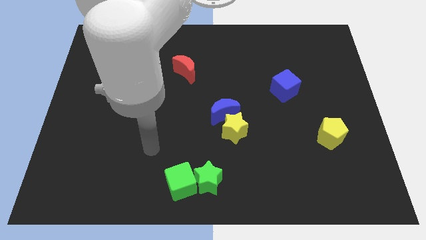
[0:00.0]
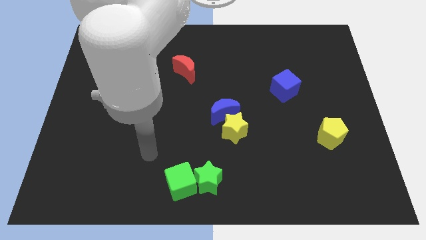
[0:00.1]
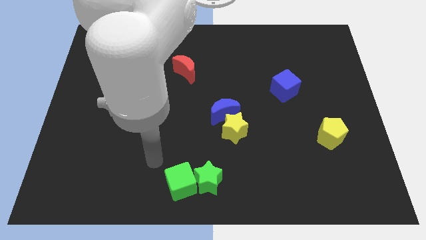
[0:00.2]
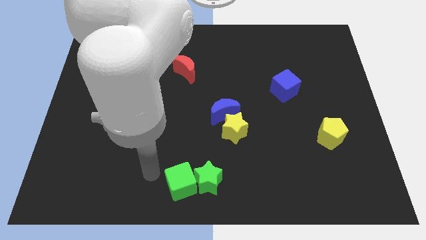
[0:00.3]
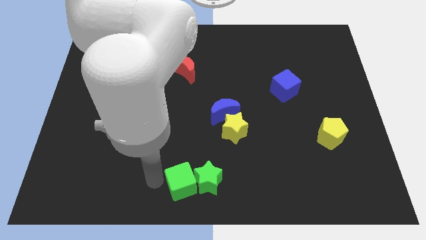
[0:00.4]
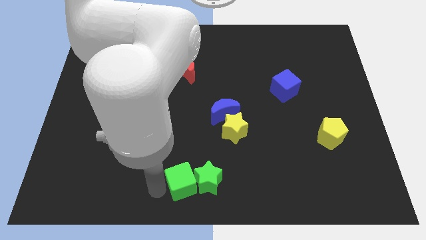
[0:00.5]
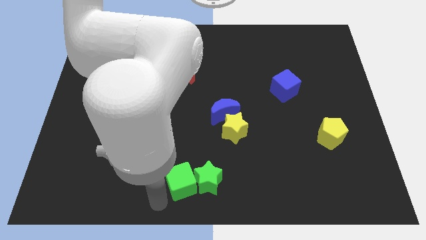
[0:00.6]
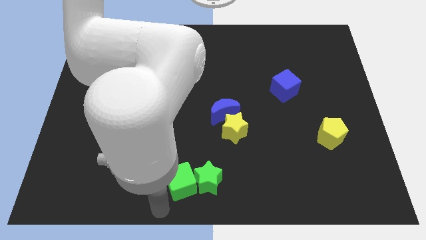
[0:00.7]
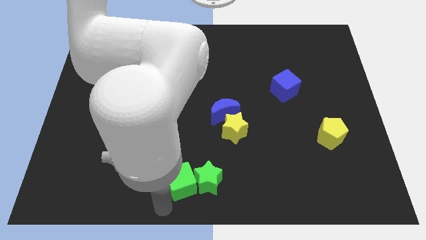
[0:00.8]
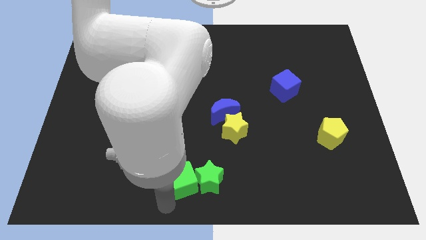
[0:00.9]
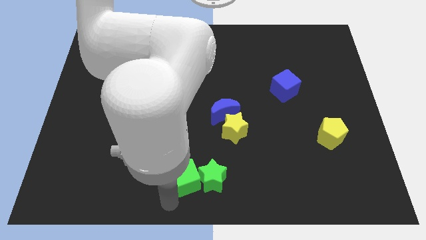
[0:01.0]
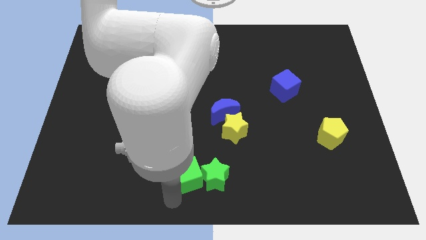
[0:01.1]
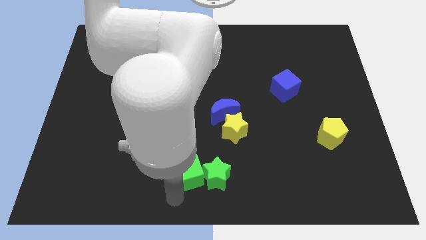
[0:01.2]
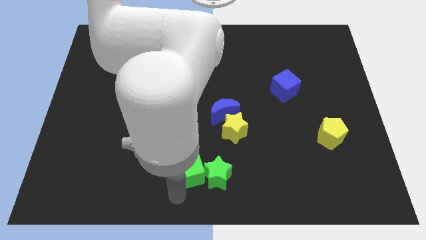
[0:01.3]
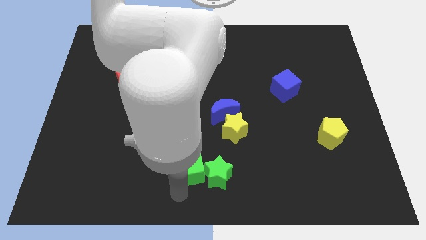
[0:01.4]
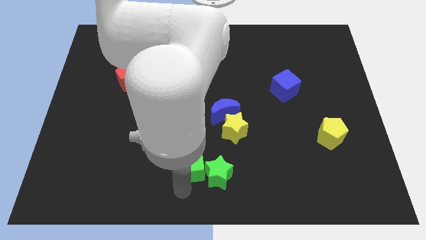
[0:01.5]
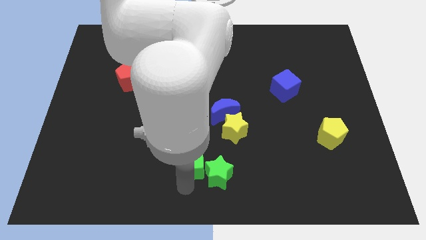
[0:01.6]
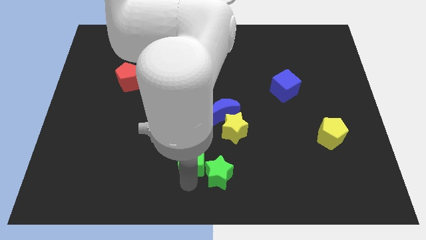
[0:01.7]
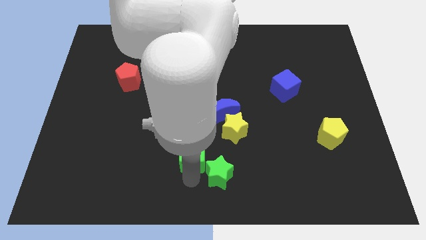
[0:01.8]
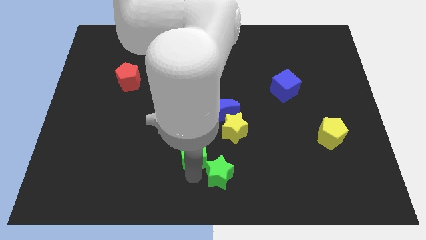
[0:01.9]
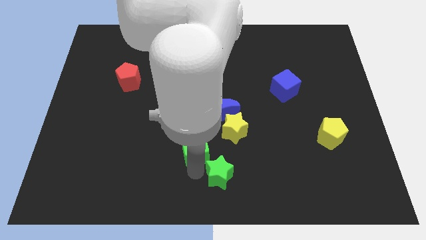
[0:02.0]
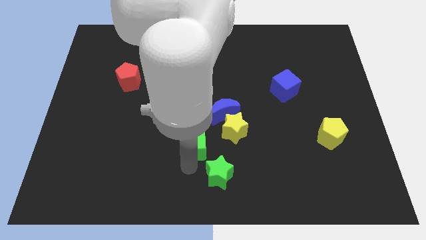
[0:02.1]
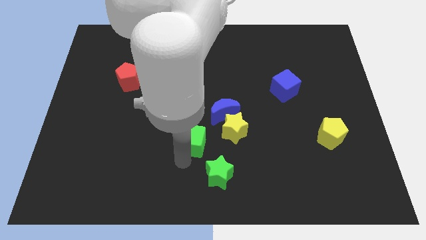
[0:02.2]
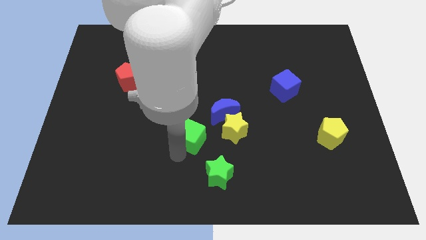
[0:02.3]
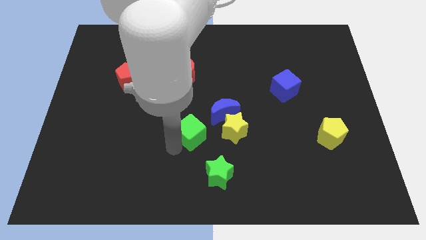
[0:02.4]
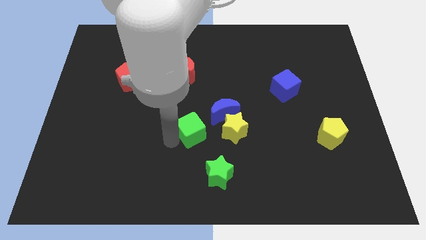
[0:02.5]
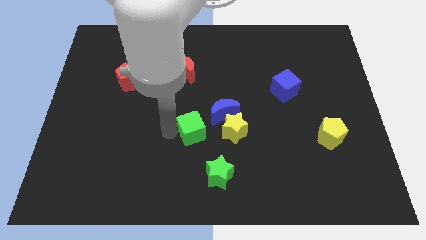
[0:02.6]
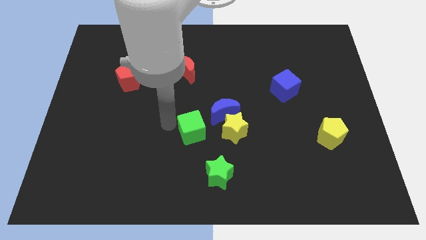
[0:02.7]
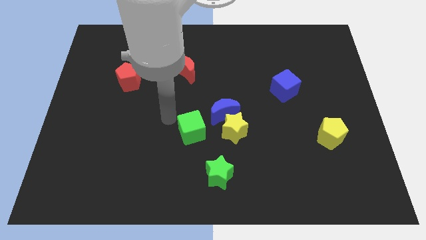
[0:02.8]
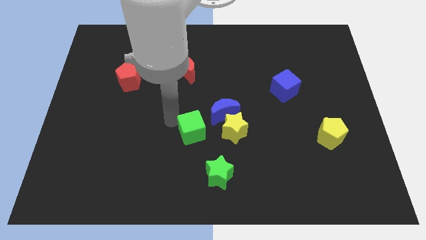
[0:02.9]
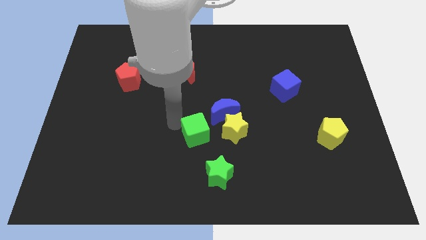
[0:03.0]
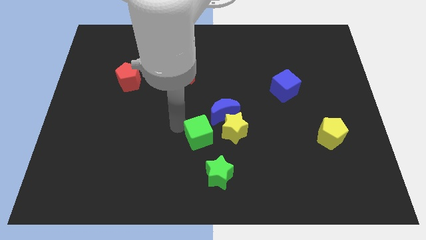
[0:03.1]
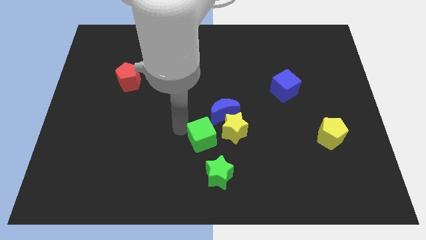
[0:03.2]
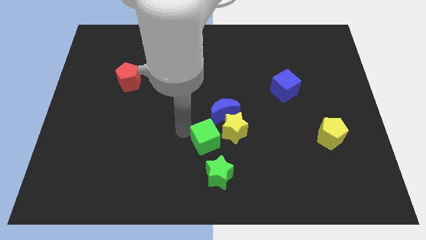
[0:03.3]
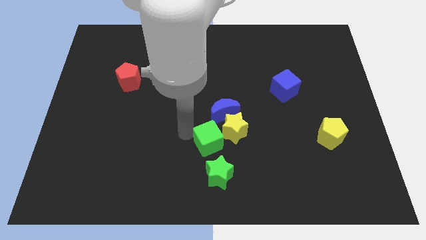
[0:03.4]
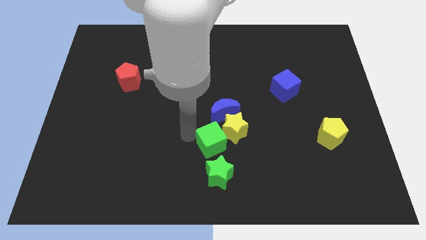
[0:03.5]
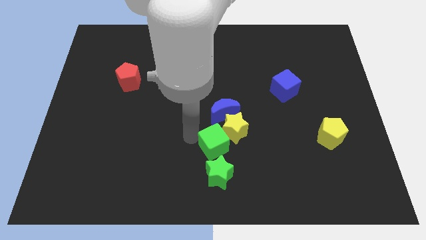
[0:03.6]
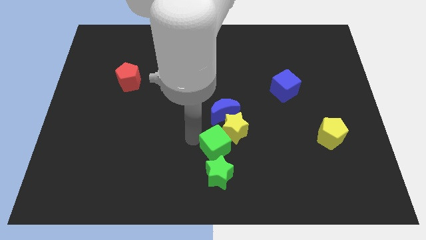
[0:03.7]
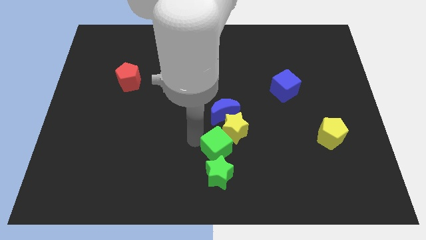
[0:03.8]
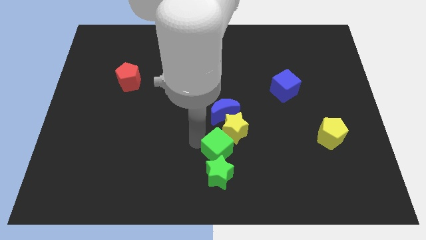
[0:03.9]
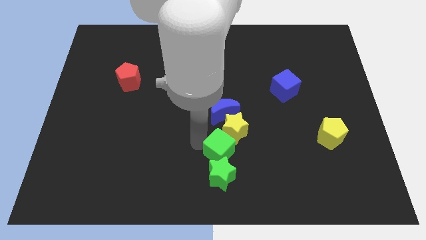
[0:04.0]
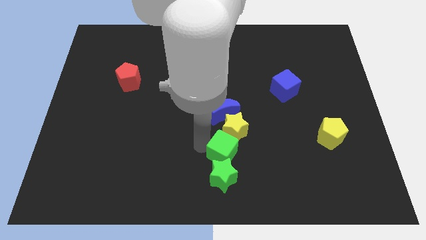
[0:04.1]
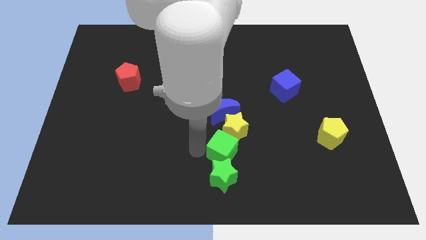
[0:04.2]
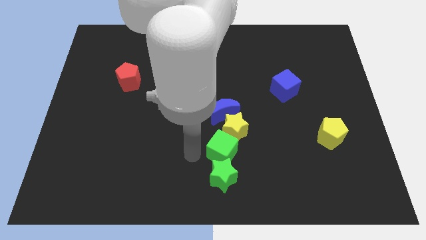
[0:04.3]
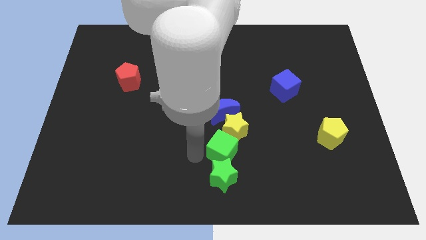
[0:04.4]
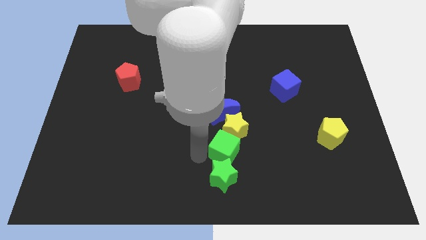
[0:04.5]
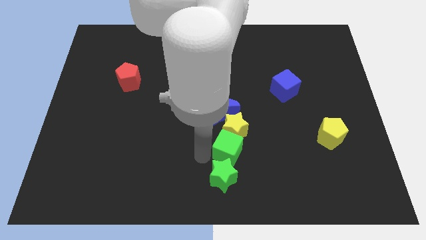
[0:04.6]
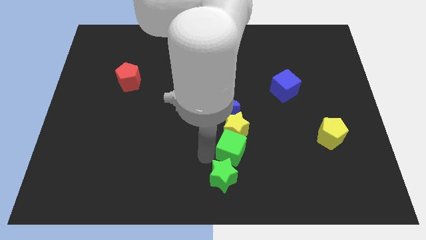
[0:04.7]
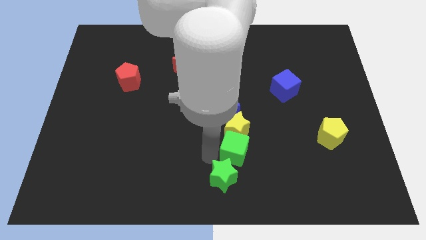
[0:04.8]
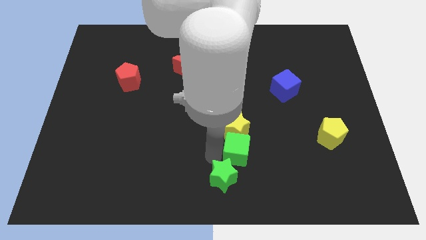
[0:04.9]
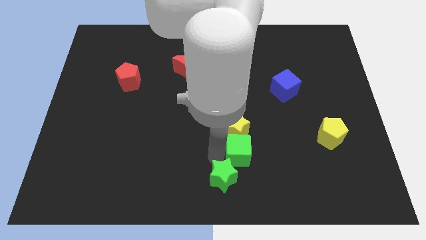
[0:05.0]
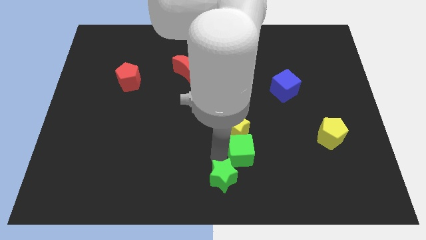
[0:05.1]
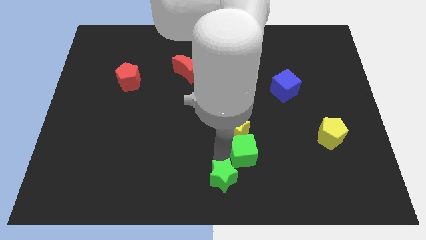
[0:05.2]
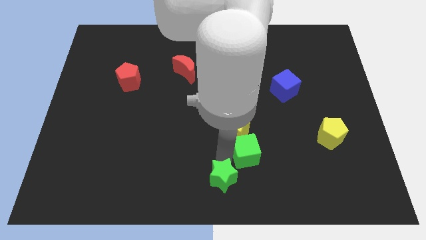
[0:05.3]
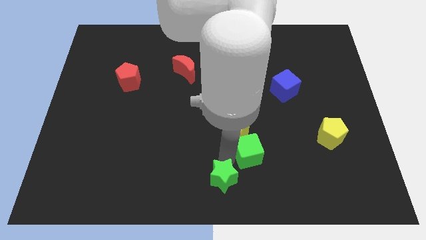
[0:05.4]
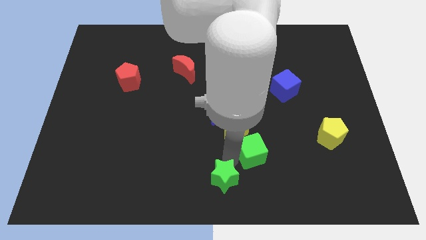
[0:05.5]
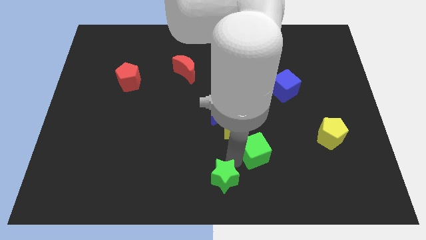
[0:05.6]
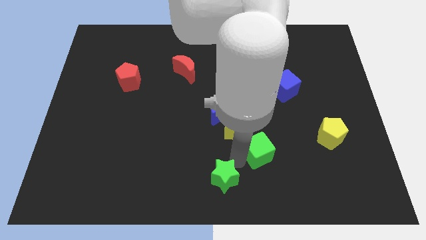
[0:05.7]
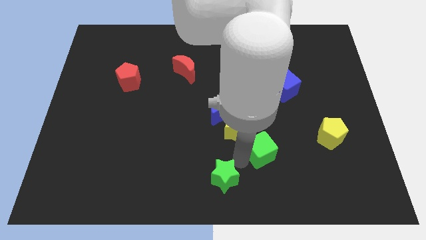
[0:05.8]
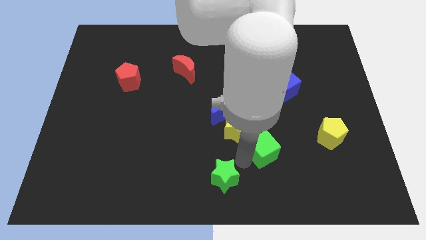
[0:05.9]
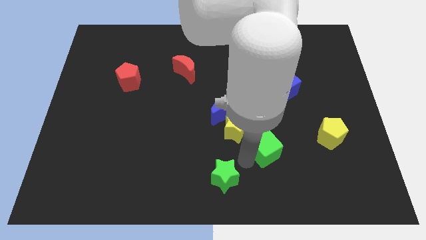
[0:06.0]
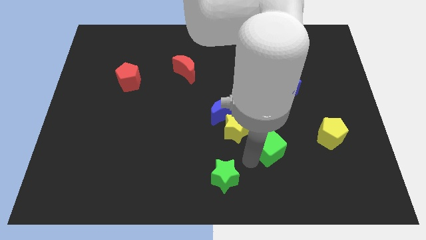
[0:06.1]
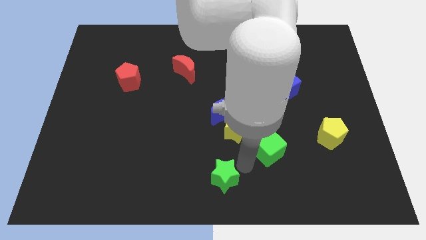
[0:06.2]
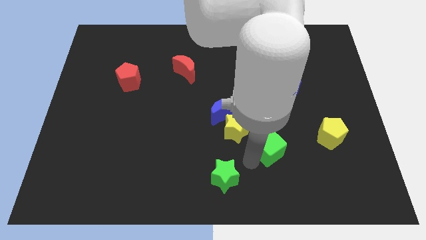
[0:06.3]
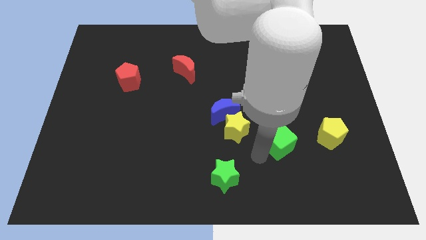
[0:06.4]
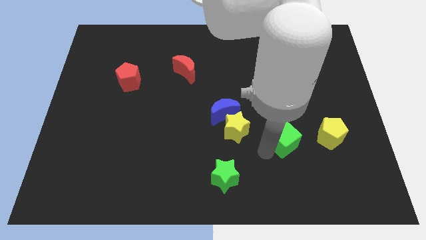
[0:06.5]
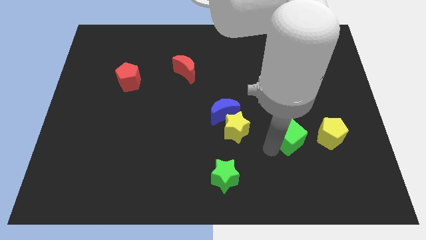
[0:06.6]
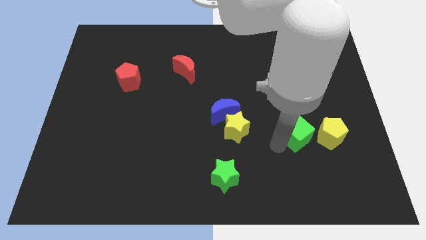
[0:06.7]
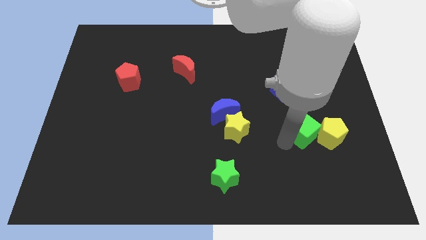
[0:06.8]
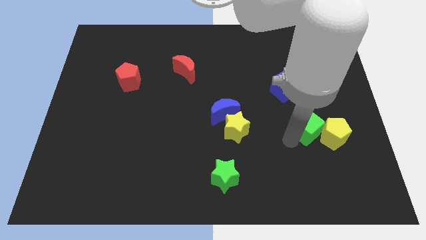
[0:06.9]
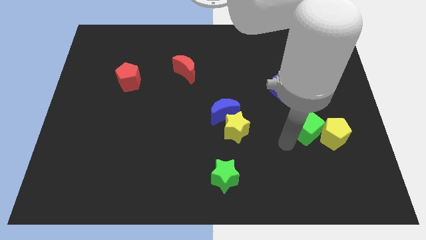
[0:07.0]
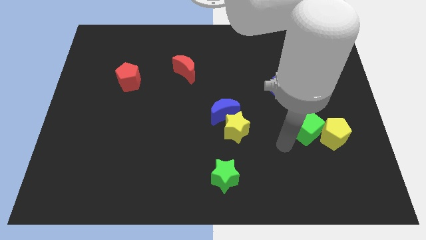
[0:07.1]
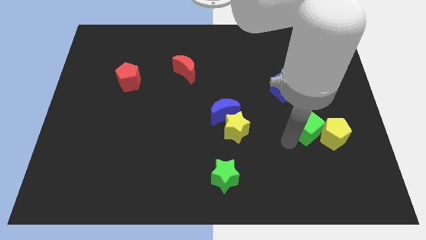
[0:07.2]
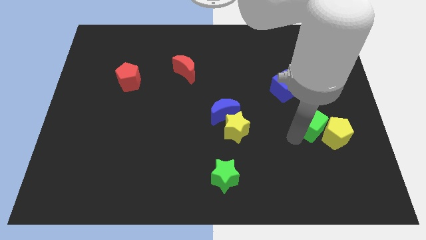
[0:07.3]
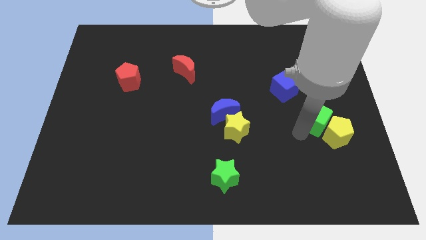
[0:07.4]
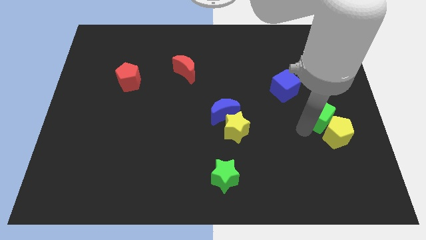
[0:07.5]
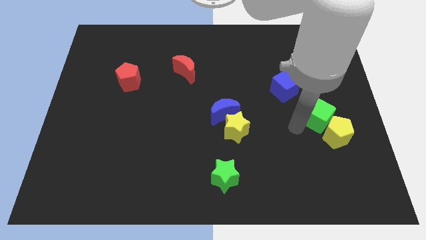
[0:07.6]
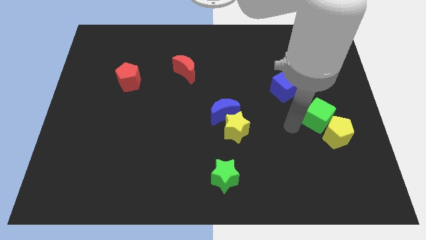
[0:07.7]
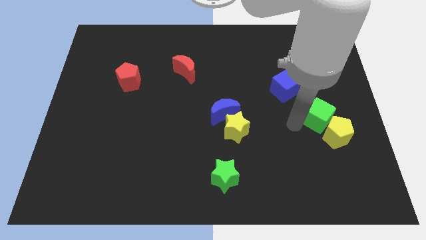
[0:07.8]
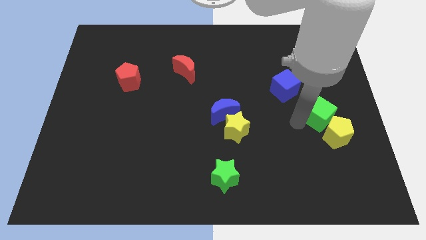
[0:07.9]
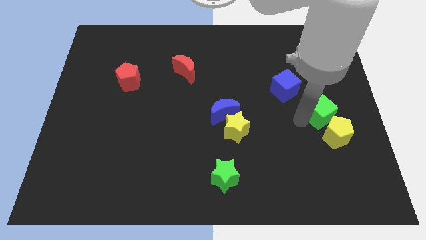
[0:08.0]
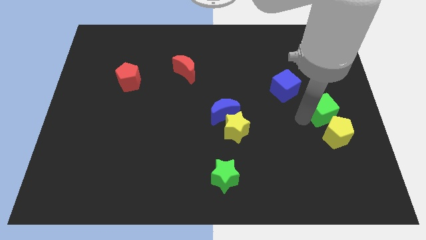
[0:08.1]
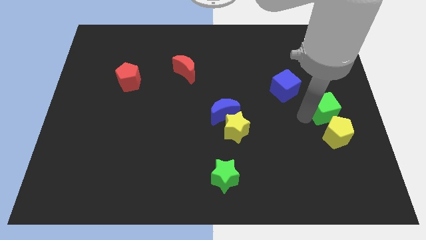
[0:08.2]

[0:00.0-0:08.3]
put the green cube to the right side
